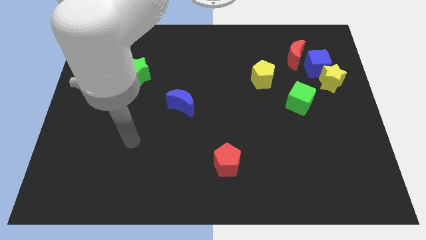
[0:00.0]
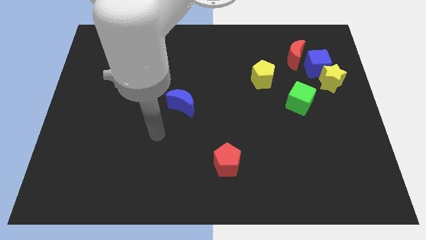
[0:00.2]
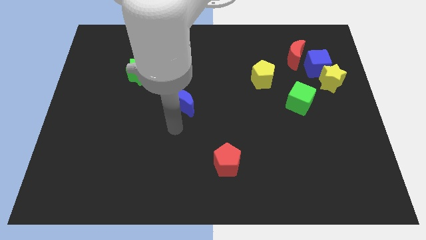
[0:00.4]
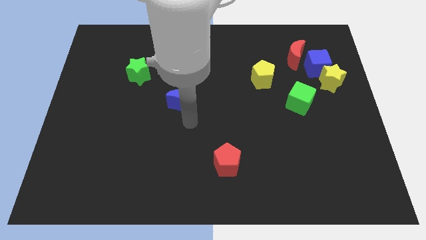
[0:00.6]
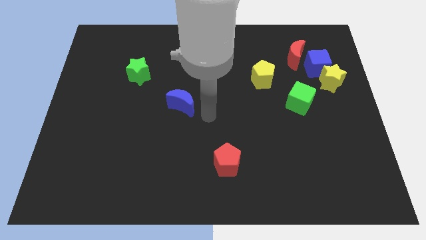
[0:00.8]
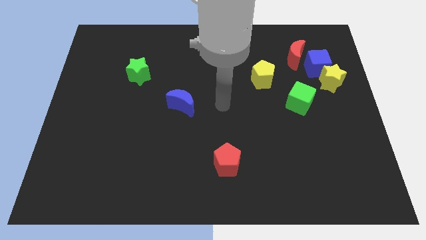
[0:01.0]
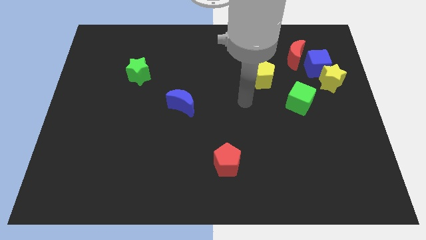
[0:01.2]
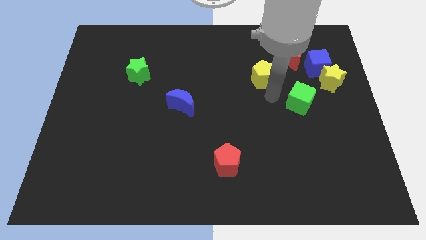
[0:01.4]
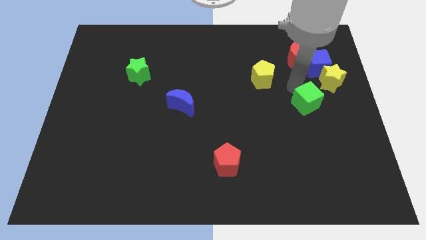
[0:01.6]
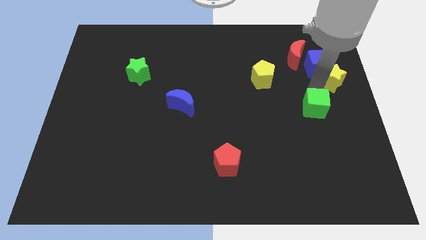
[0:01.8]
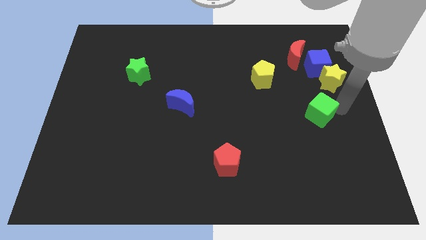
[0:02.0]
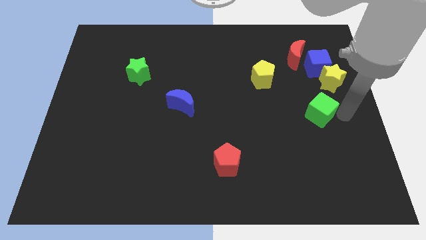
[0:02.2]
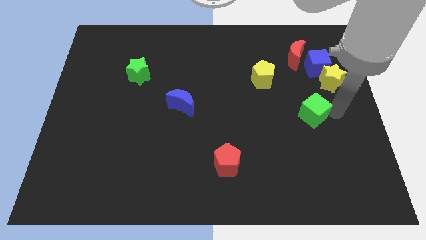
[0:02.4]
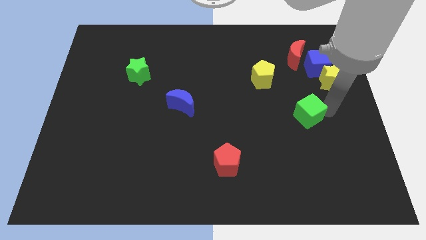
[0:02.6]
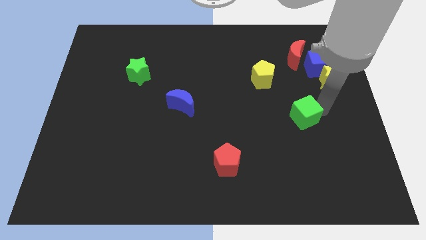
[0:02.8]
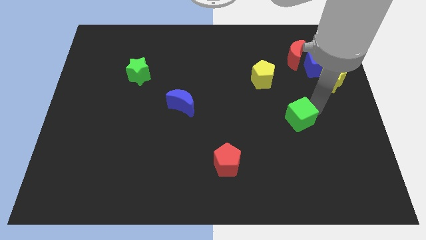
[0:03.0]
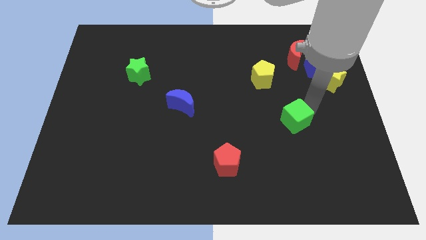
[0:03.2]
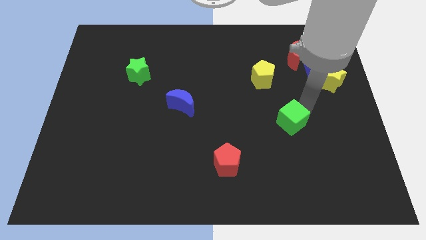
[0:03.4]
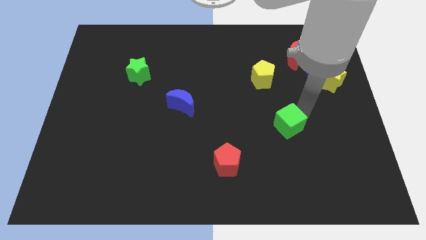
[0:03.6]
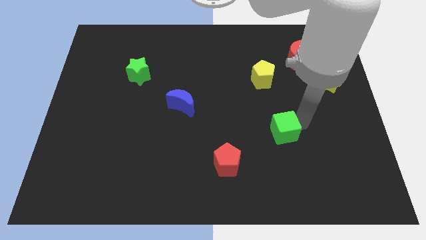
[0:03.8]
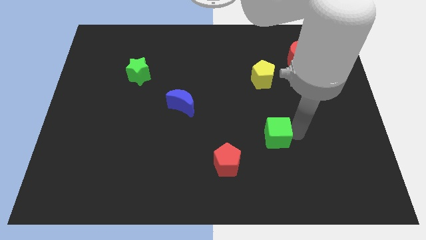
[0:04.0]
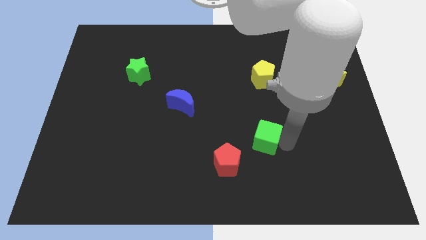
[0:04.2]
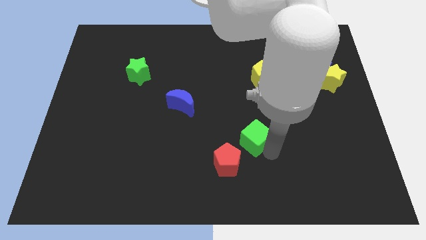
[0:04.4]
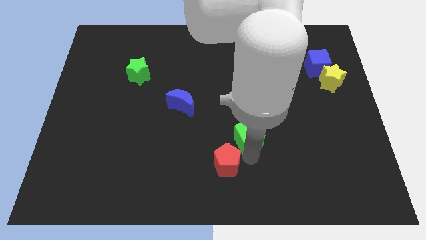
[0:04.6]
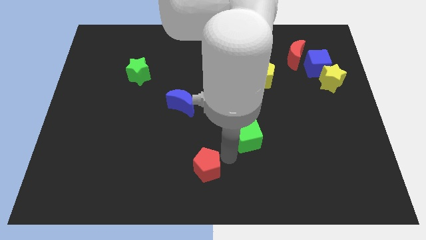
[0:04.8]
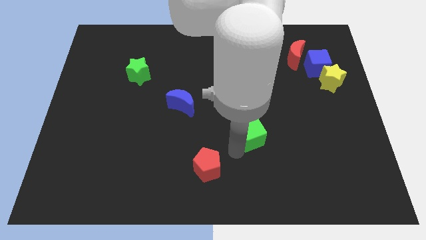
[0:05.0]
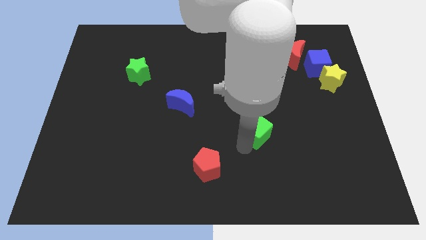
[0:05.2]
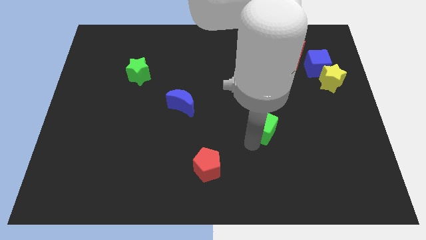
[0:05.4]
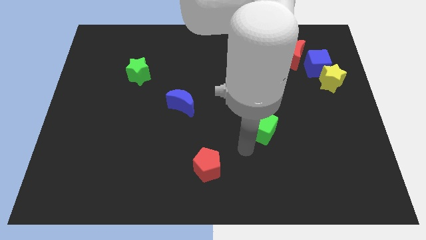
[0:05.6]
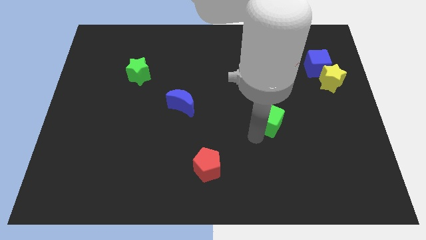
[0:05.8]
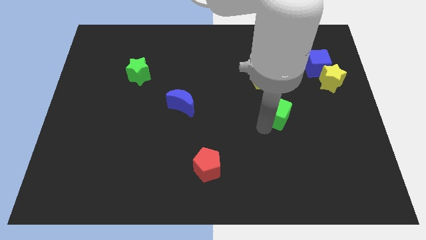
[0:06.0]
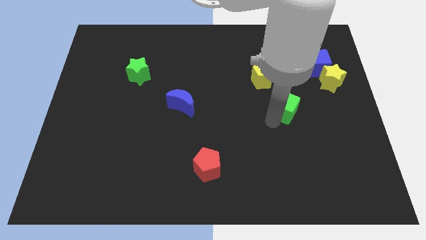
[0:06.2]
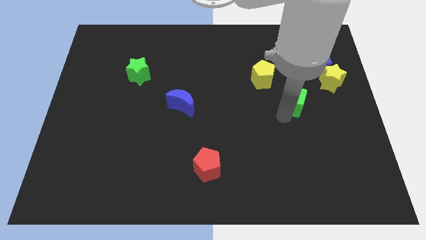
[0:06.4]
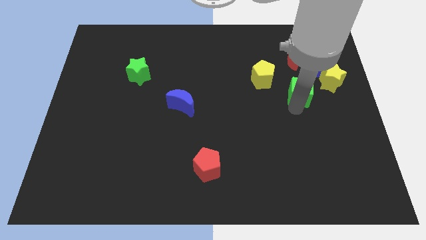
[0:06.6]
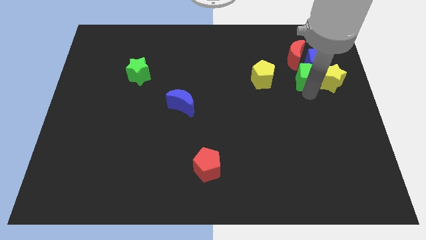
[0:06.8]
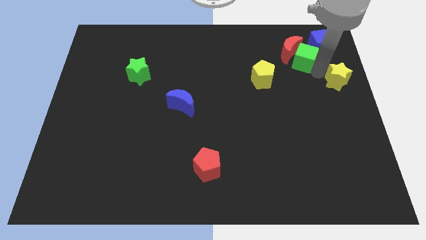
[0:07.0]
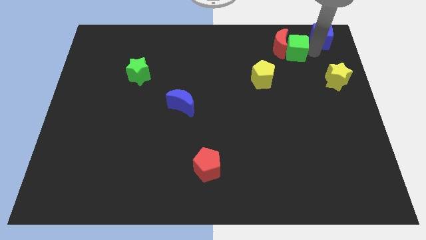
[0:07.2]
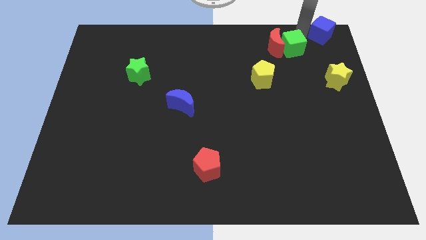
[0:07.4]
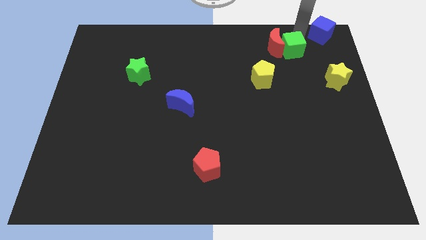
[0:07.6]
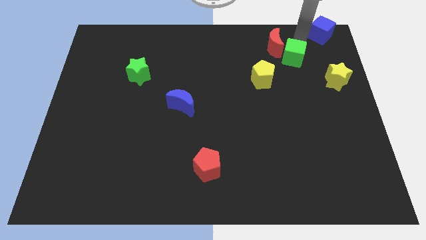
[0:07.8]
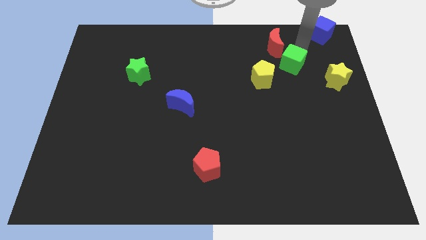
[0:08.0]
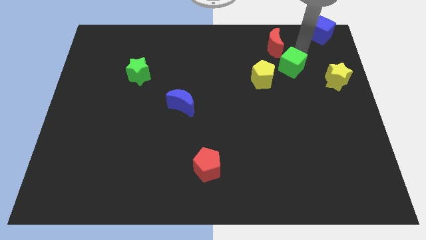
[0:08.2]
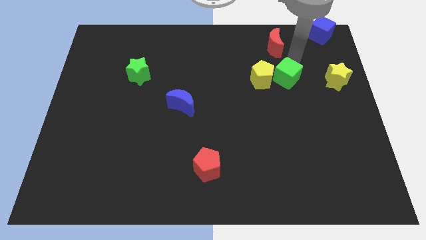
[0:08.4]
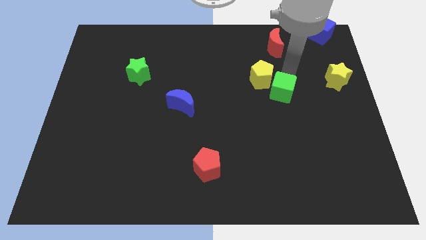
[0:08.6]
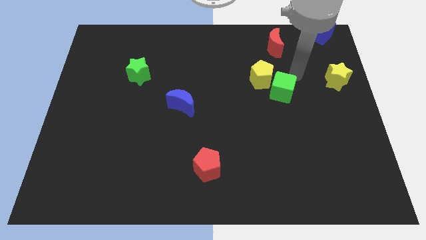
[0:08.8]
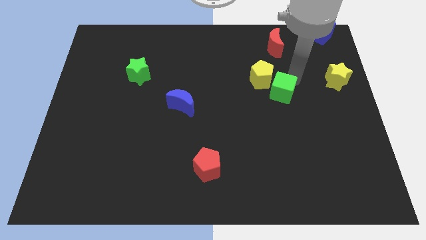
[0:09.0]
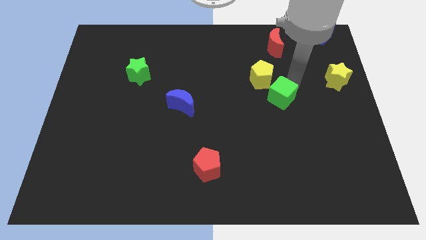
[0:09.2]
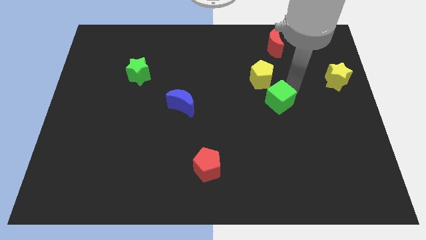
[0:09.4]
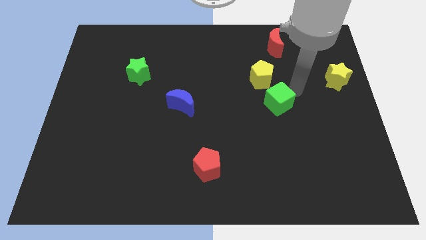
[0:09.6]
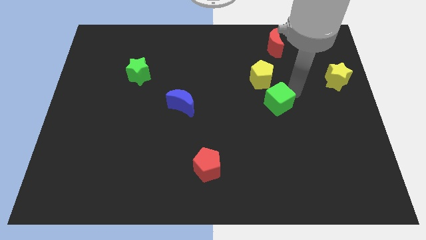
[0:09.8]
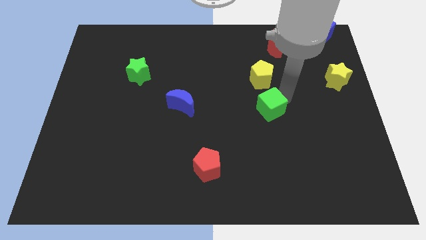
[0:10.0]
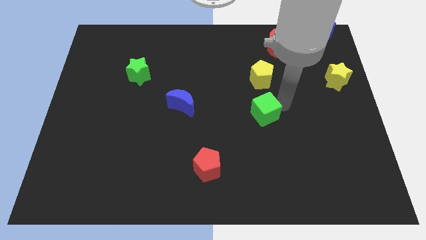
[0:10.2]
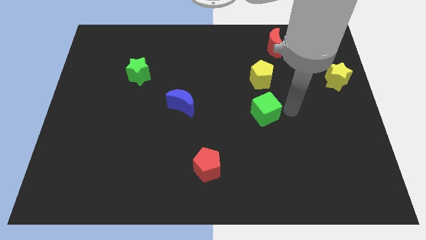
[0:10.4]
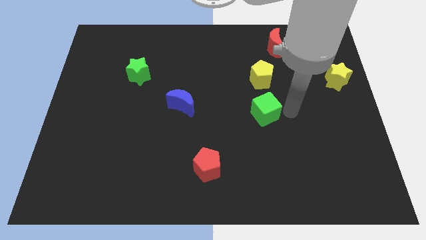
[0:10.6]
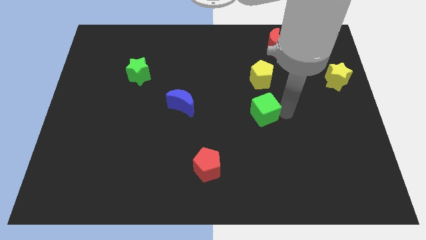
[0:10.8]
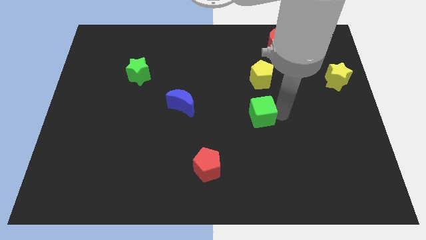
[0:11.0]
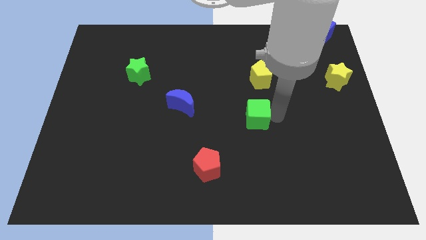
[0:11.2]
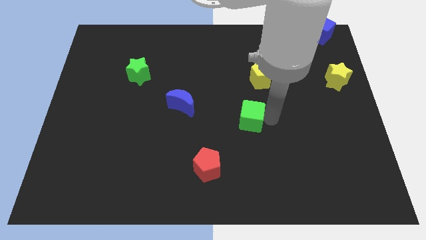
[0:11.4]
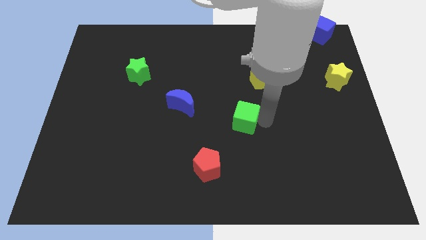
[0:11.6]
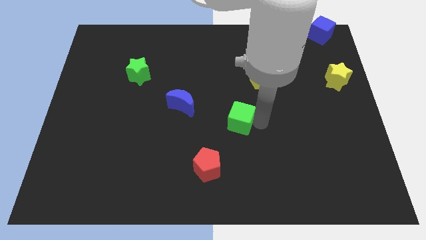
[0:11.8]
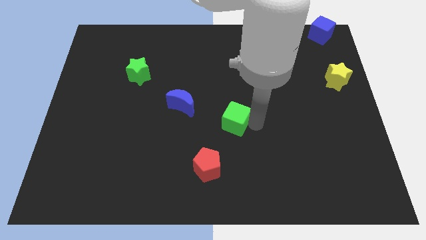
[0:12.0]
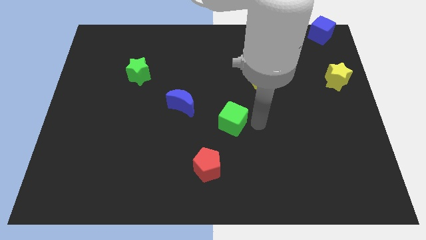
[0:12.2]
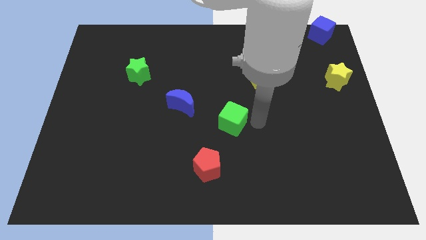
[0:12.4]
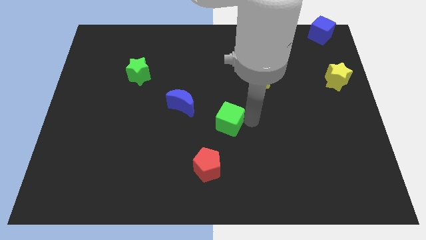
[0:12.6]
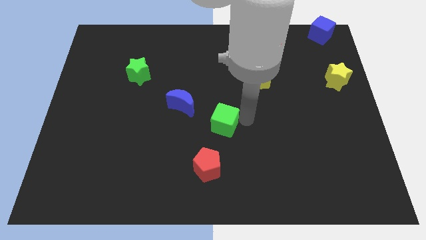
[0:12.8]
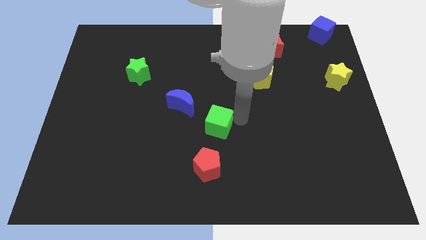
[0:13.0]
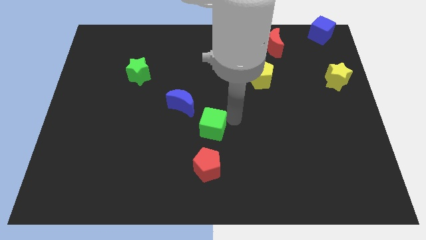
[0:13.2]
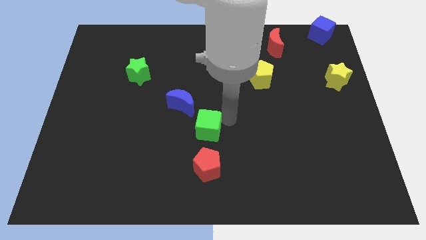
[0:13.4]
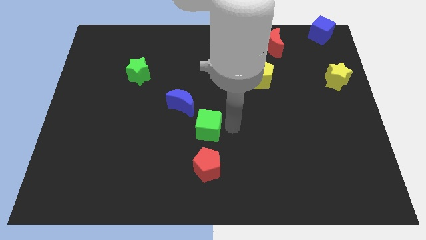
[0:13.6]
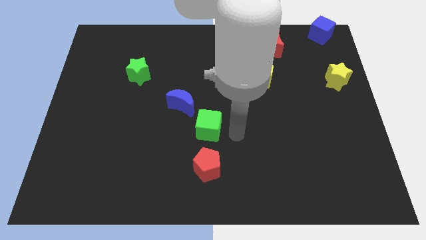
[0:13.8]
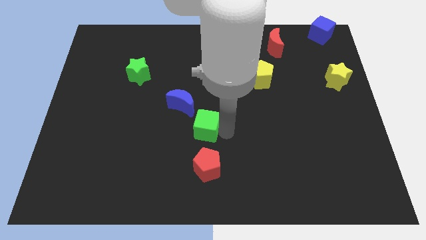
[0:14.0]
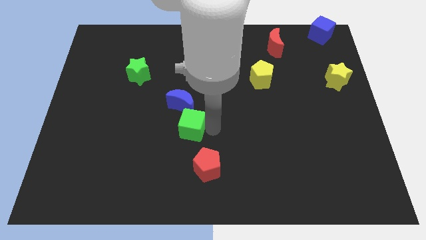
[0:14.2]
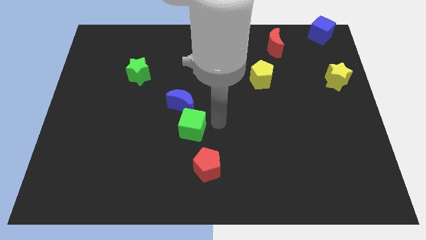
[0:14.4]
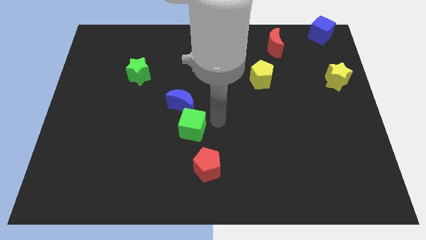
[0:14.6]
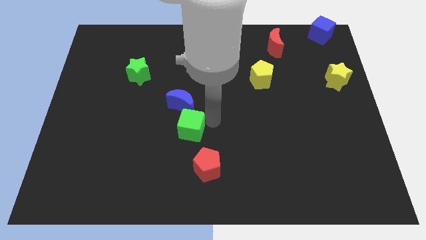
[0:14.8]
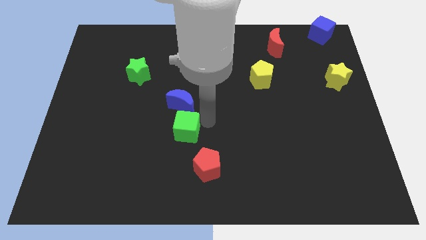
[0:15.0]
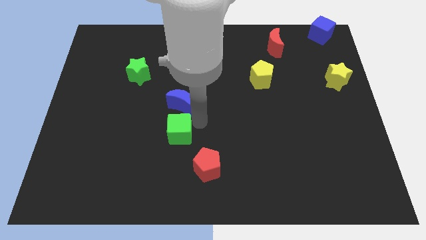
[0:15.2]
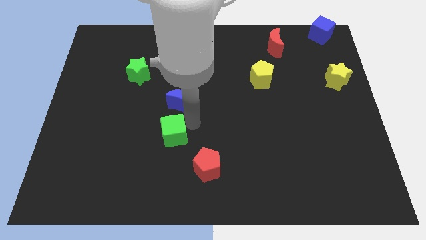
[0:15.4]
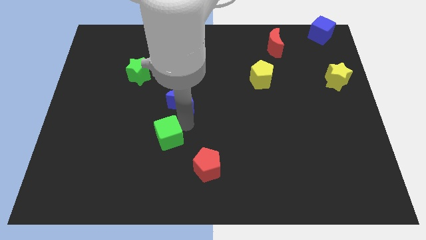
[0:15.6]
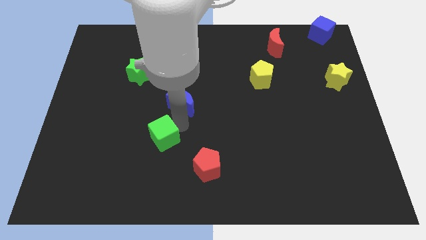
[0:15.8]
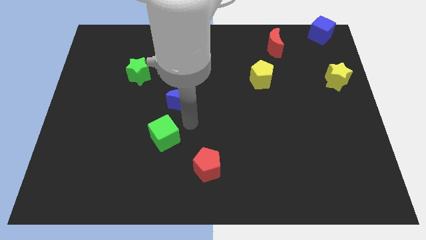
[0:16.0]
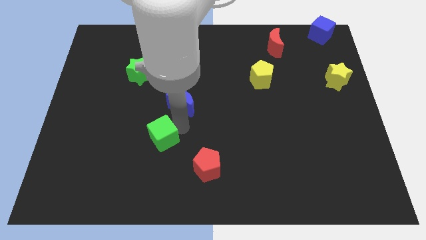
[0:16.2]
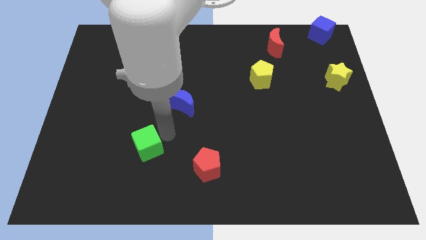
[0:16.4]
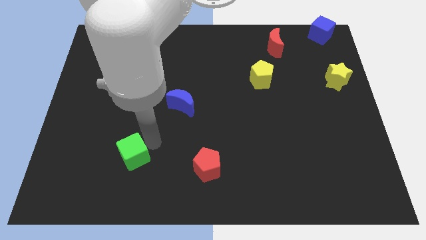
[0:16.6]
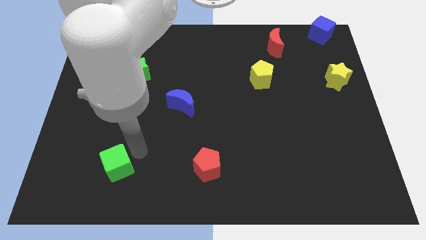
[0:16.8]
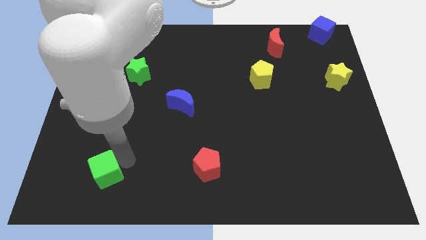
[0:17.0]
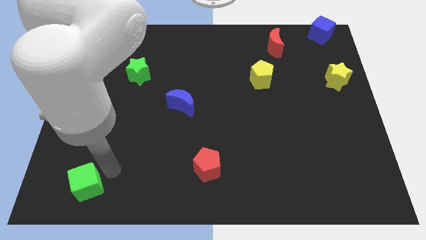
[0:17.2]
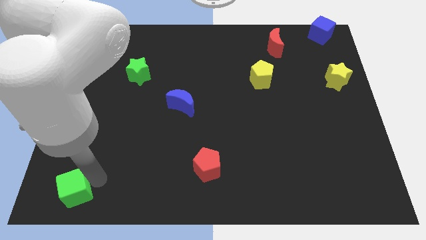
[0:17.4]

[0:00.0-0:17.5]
put the green cube to the bottom left
